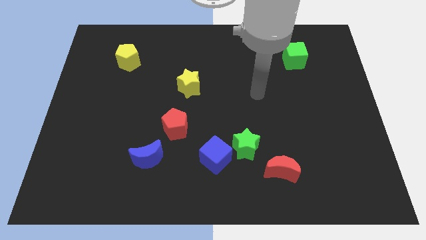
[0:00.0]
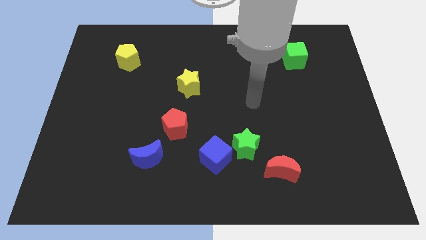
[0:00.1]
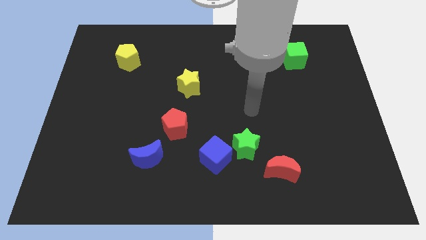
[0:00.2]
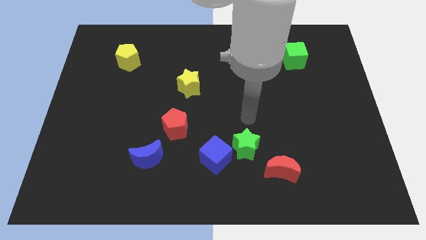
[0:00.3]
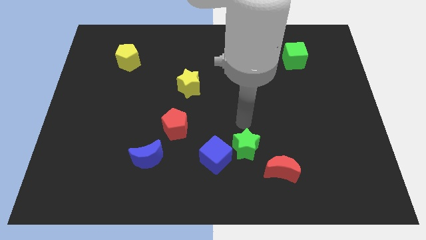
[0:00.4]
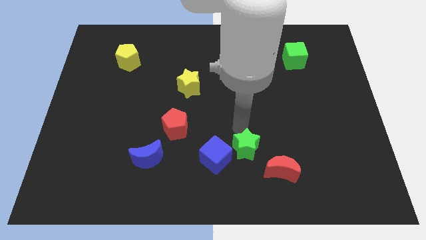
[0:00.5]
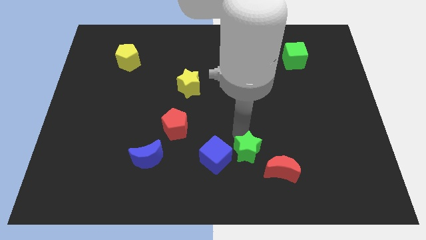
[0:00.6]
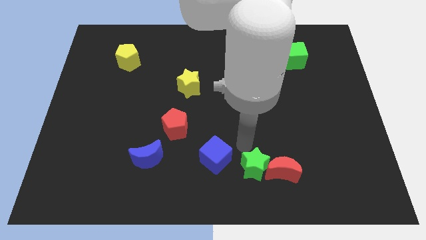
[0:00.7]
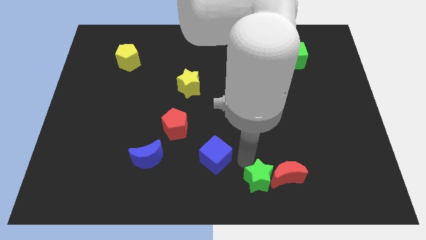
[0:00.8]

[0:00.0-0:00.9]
move the blue cube away from the green star

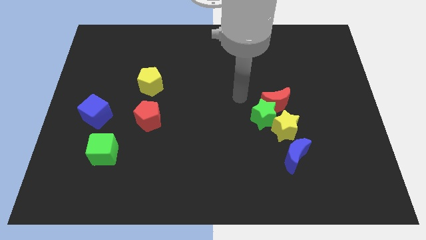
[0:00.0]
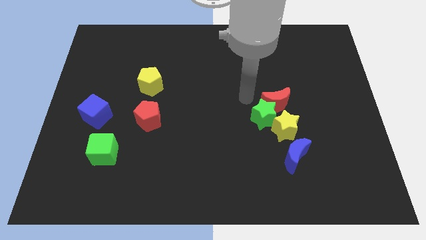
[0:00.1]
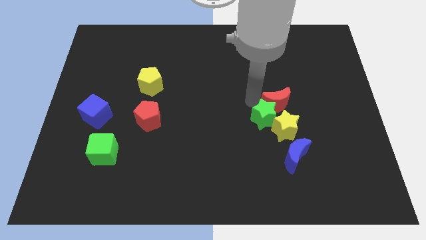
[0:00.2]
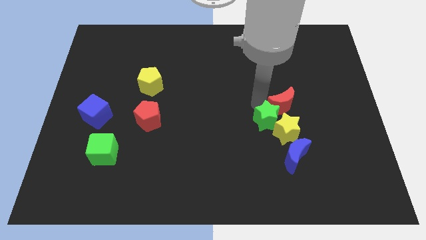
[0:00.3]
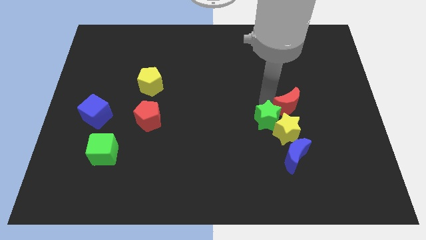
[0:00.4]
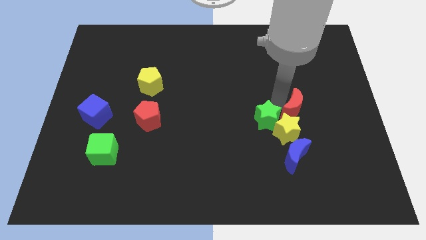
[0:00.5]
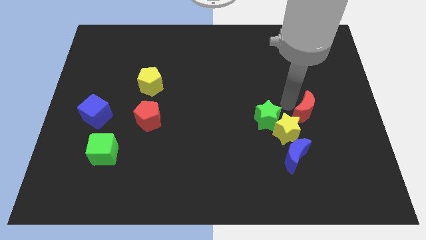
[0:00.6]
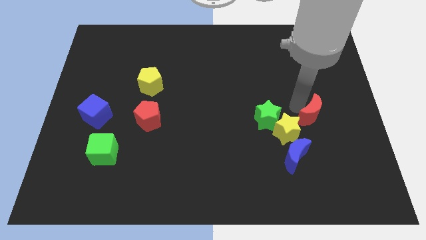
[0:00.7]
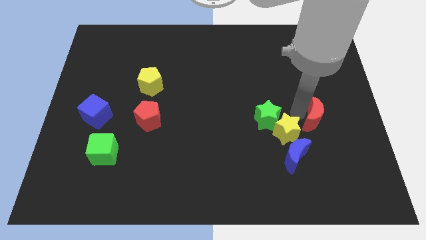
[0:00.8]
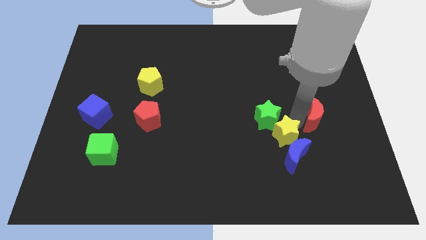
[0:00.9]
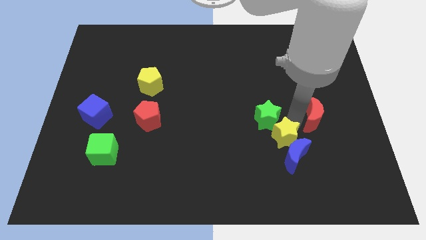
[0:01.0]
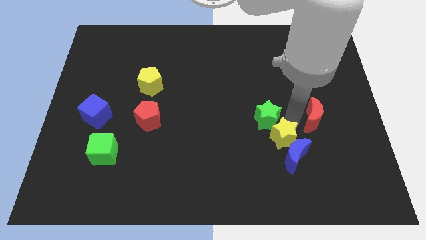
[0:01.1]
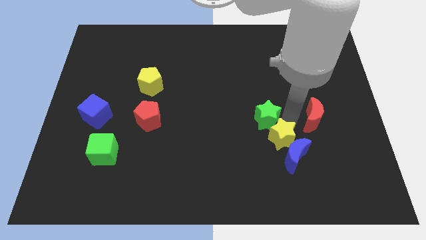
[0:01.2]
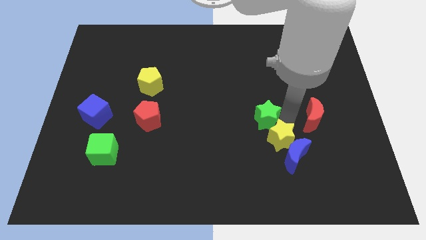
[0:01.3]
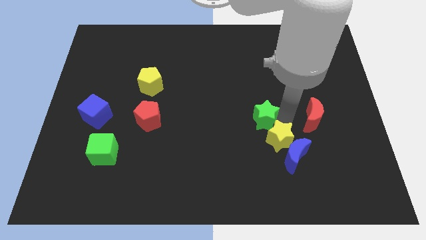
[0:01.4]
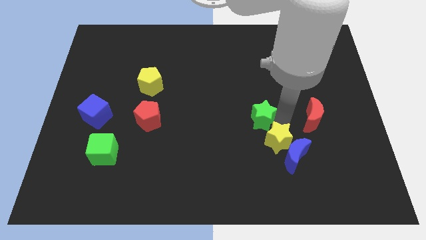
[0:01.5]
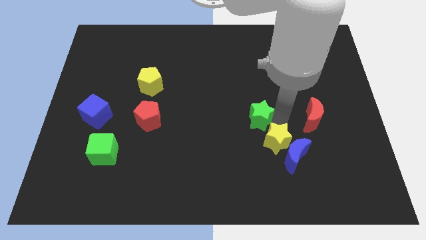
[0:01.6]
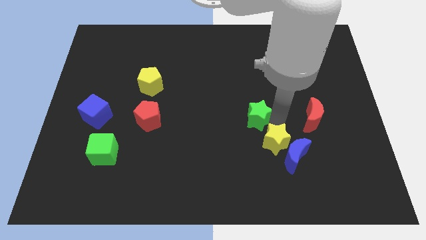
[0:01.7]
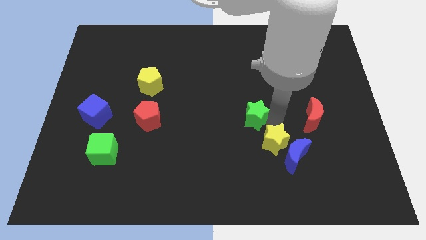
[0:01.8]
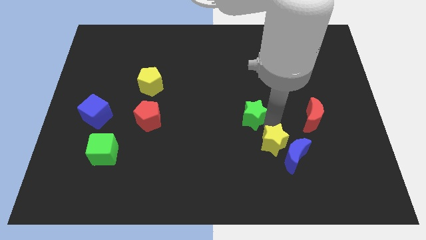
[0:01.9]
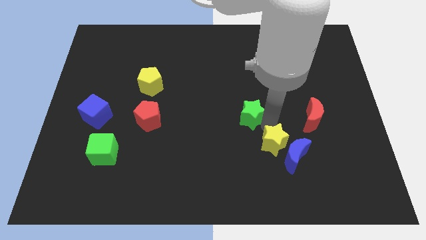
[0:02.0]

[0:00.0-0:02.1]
separate the green star from the red moon and yellow star

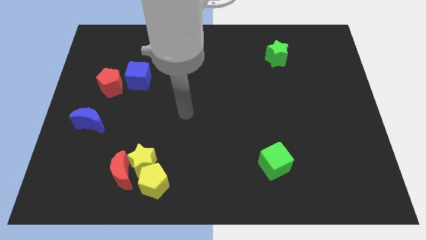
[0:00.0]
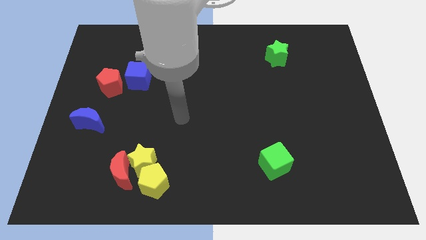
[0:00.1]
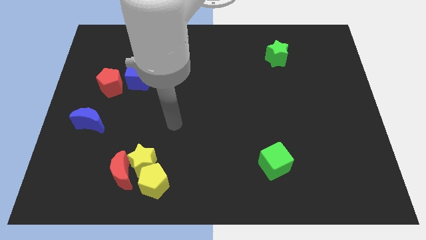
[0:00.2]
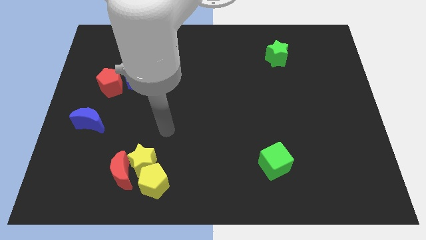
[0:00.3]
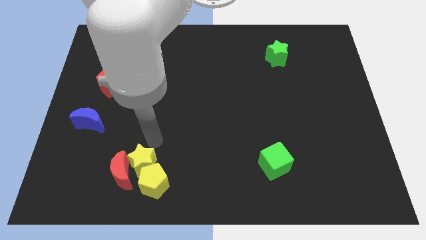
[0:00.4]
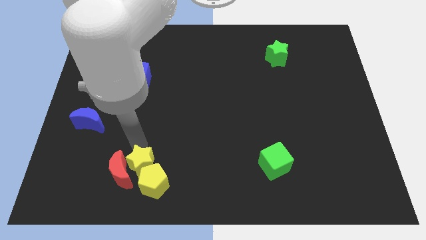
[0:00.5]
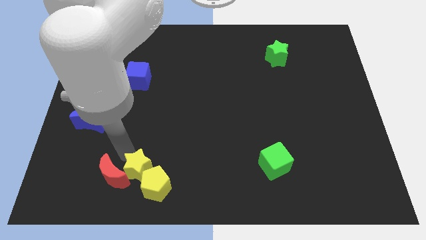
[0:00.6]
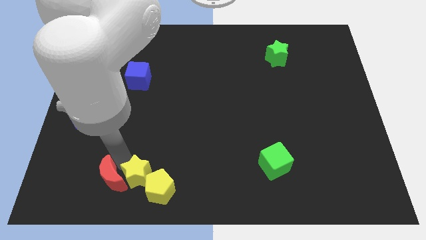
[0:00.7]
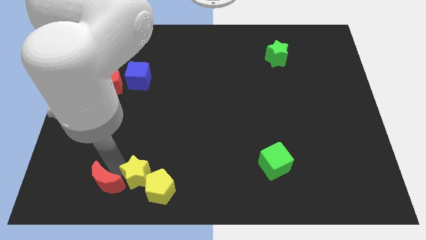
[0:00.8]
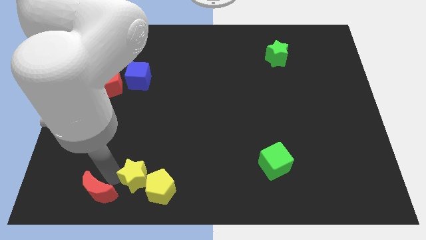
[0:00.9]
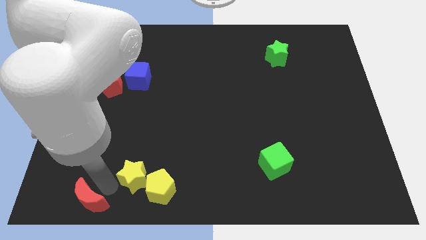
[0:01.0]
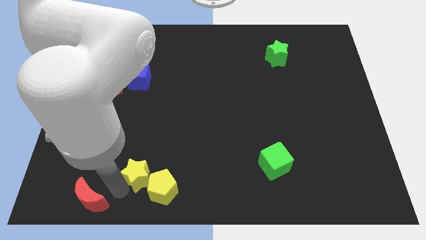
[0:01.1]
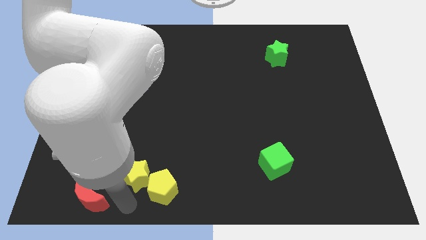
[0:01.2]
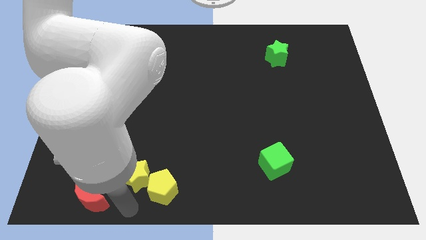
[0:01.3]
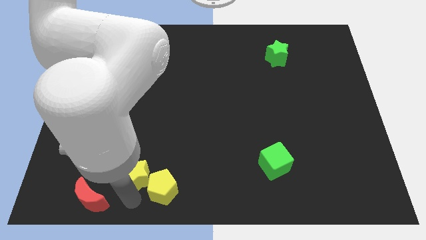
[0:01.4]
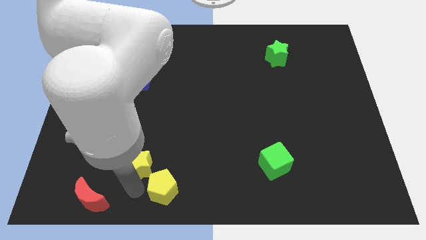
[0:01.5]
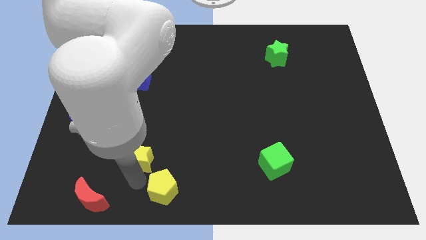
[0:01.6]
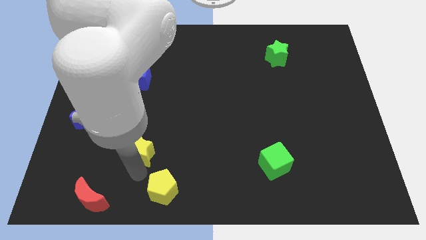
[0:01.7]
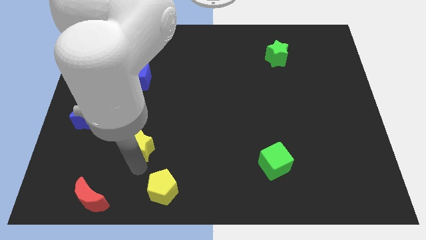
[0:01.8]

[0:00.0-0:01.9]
move the yellow star away from the red moon and yellow pentagon

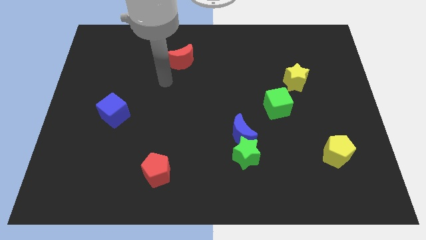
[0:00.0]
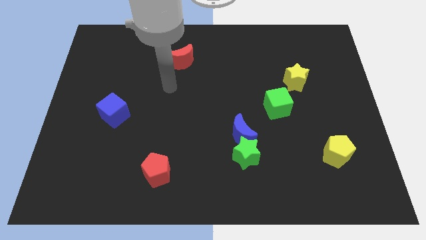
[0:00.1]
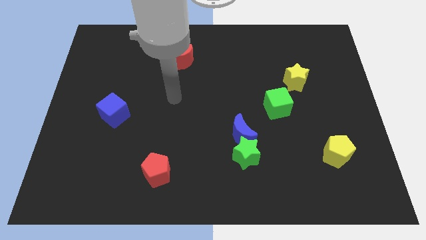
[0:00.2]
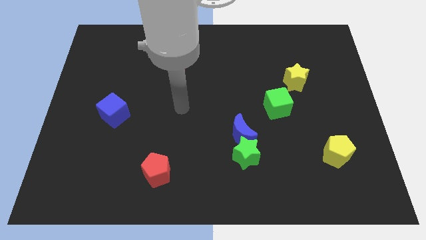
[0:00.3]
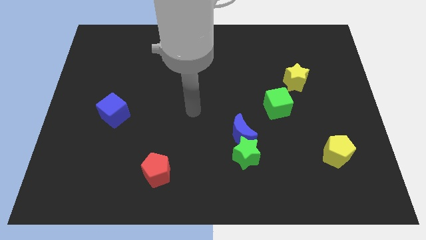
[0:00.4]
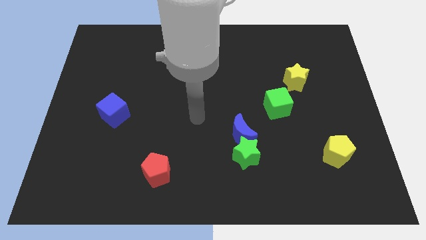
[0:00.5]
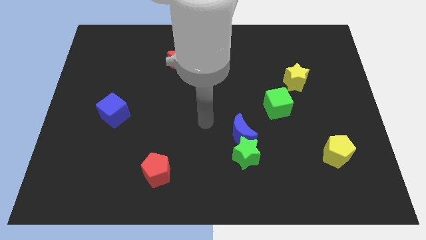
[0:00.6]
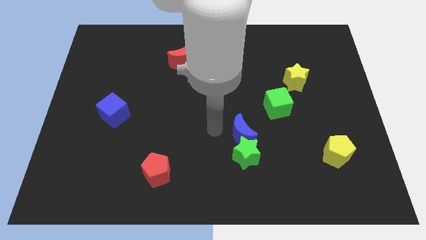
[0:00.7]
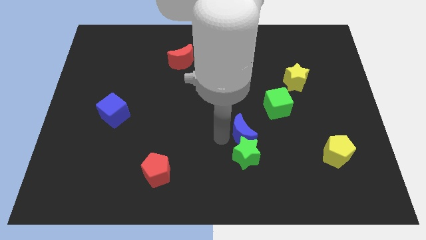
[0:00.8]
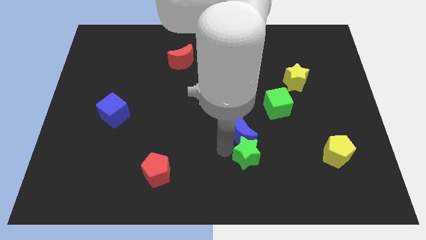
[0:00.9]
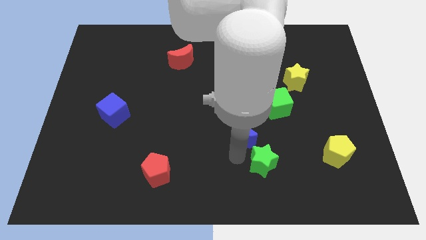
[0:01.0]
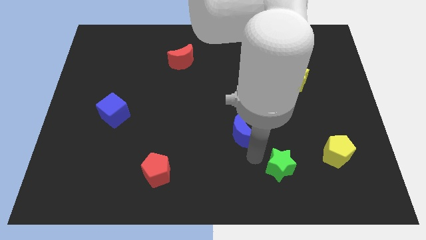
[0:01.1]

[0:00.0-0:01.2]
separate the blue moon from the green star

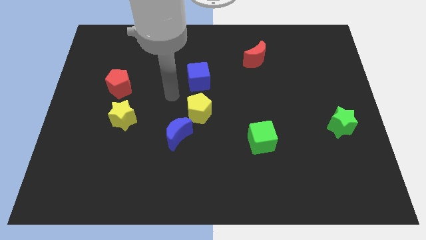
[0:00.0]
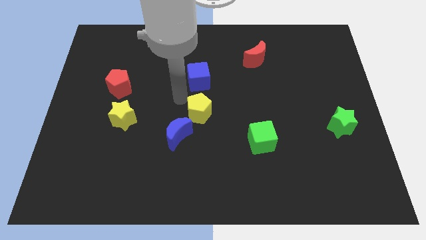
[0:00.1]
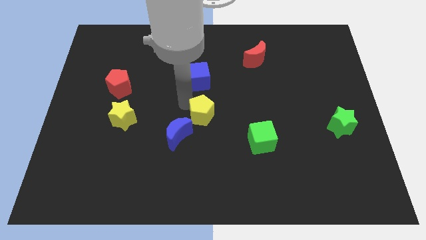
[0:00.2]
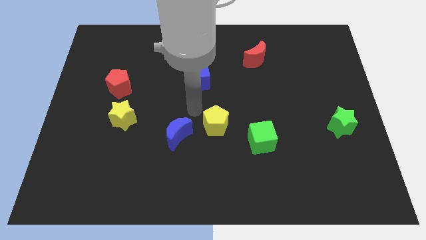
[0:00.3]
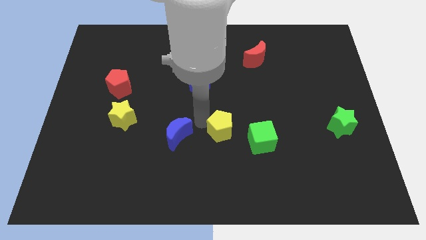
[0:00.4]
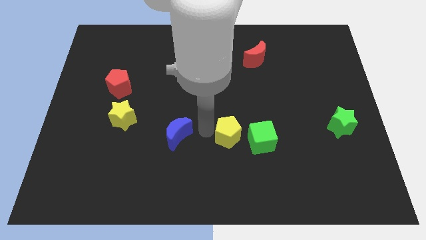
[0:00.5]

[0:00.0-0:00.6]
pull the blue moon apart from the yellow pentagon

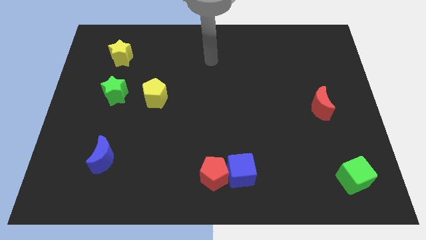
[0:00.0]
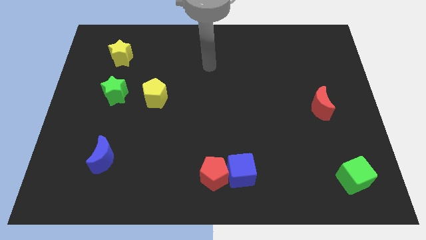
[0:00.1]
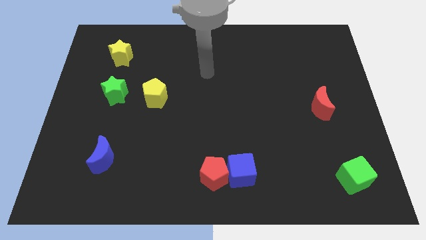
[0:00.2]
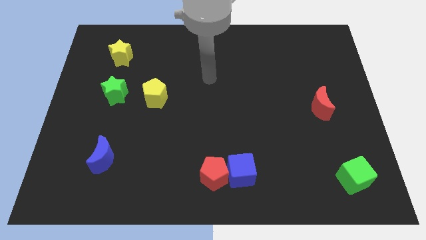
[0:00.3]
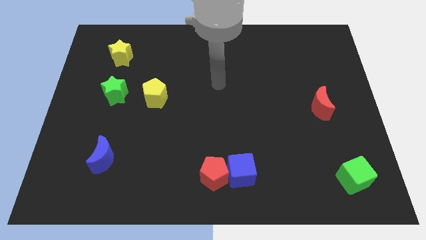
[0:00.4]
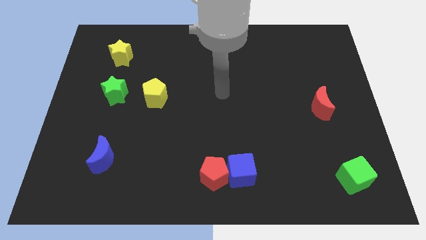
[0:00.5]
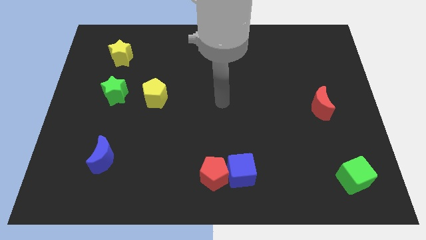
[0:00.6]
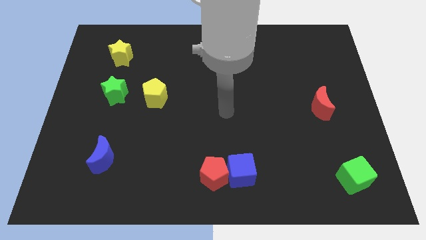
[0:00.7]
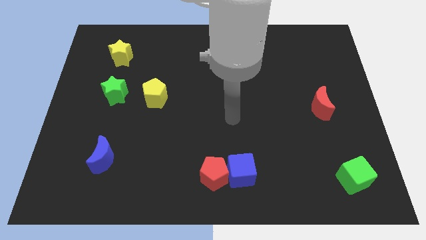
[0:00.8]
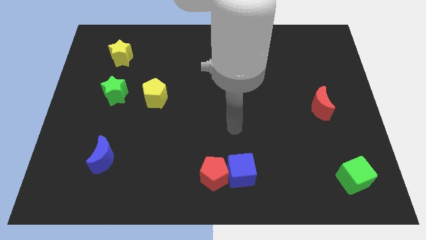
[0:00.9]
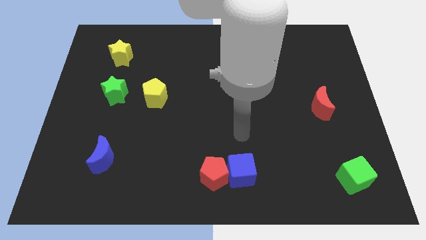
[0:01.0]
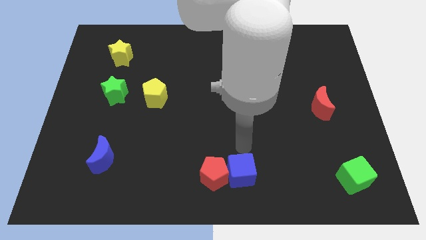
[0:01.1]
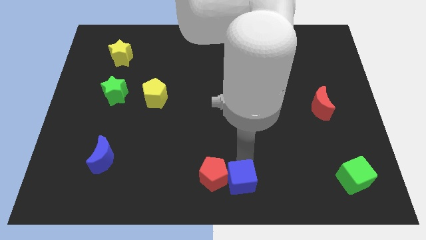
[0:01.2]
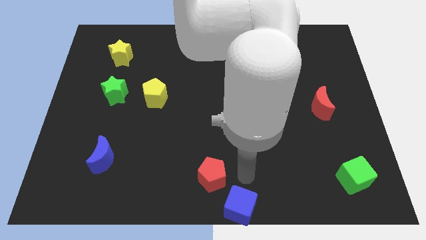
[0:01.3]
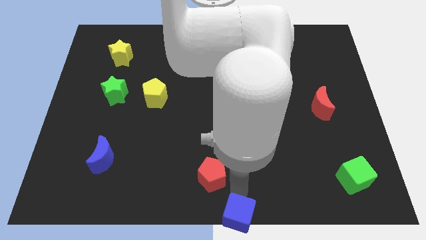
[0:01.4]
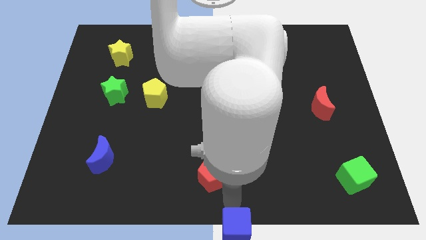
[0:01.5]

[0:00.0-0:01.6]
separate the red pentagon from the blue cube

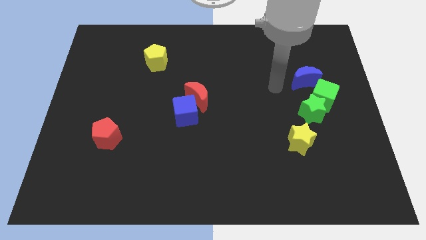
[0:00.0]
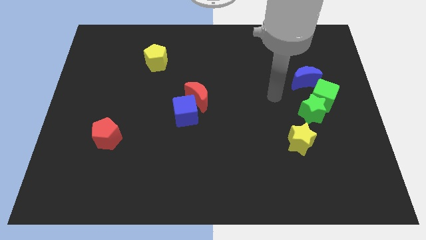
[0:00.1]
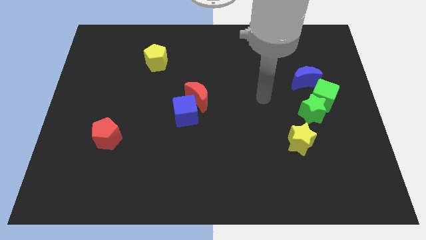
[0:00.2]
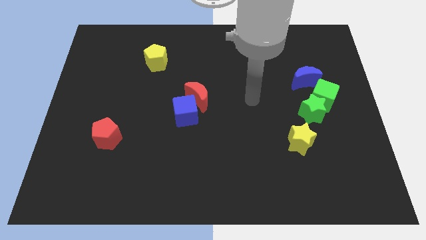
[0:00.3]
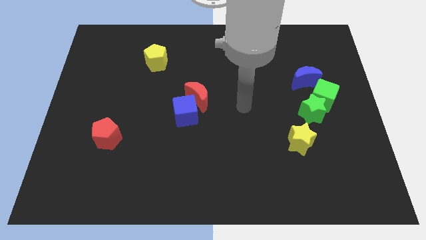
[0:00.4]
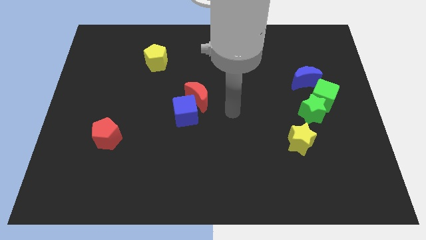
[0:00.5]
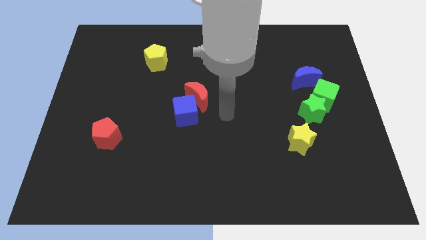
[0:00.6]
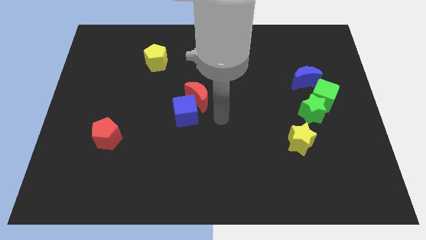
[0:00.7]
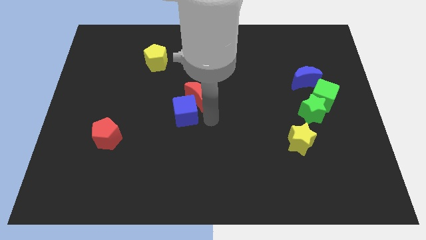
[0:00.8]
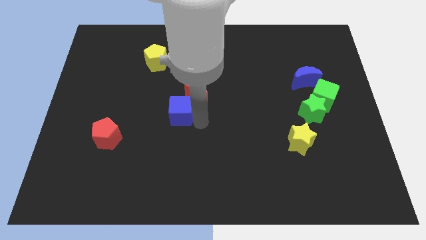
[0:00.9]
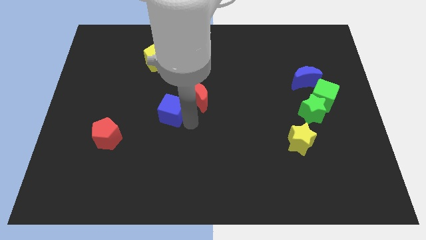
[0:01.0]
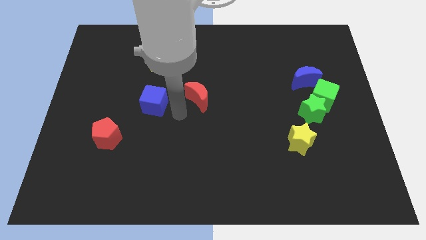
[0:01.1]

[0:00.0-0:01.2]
separate the red moon from the blue cube
